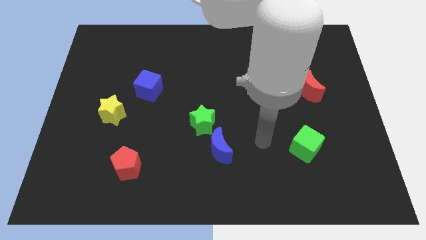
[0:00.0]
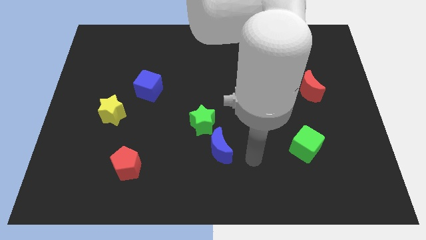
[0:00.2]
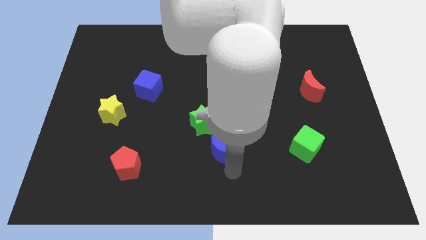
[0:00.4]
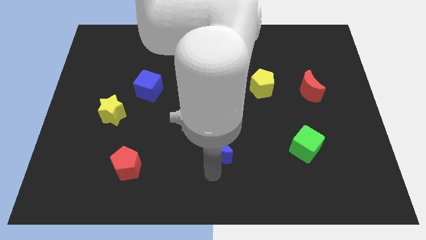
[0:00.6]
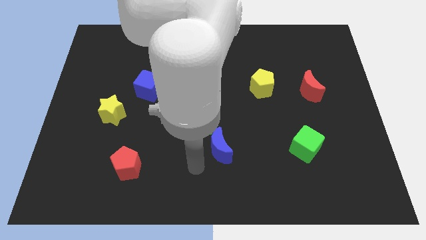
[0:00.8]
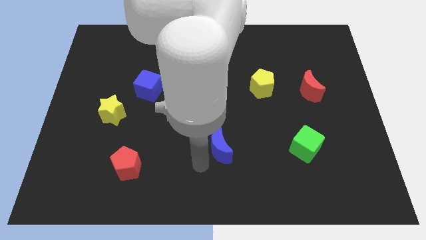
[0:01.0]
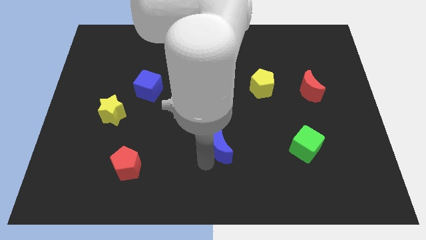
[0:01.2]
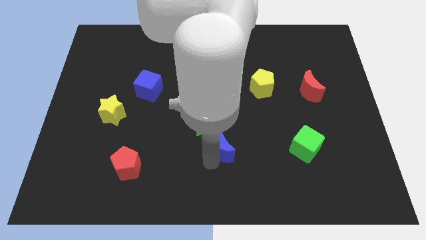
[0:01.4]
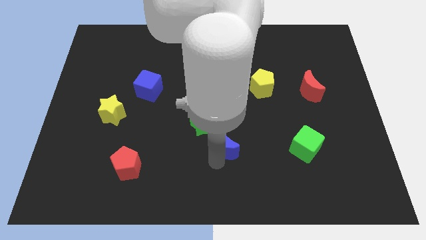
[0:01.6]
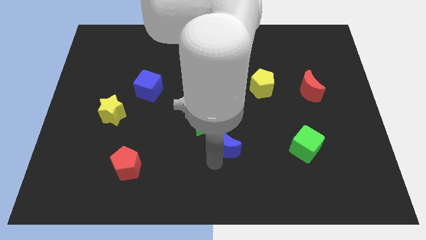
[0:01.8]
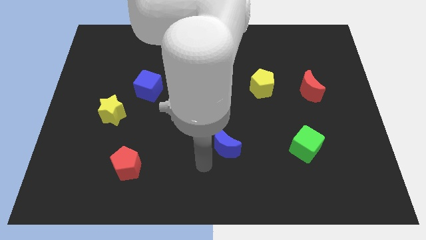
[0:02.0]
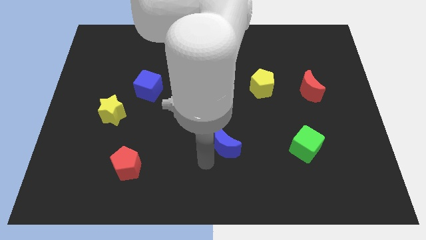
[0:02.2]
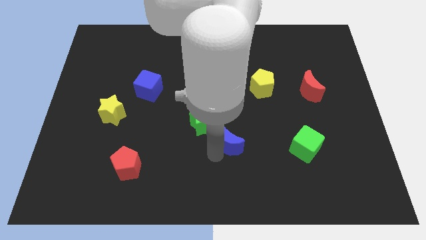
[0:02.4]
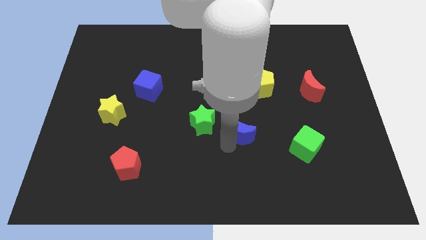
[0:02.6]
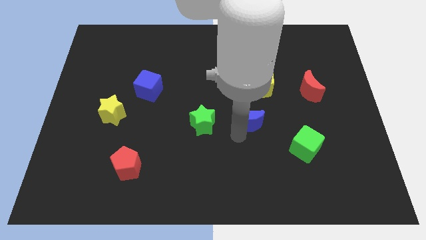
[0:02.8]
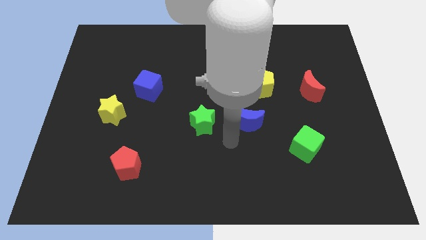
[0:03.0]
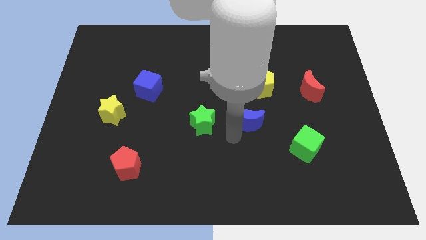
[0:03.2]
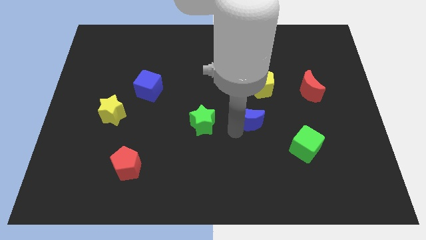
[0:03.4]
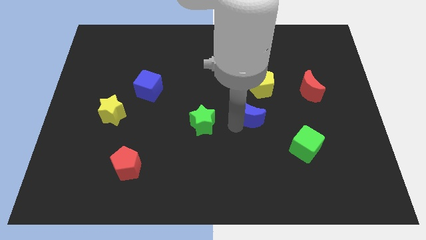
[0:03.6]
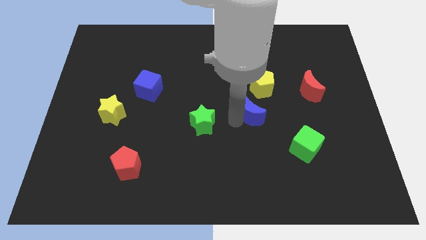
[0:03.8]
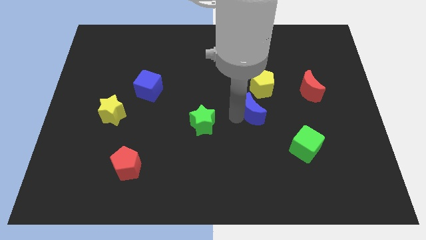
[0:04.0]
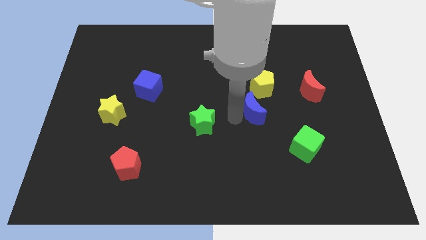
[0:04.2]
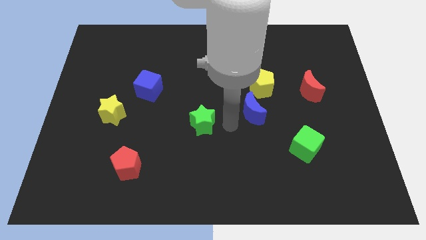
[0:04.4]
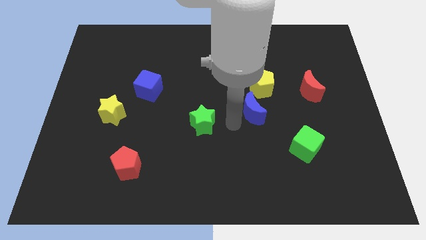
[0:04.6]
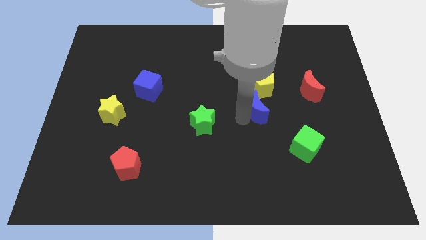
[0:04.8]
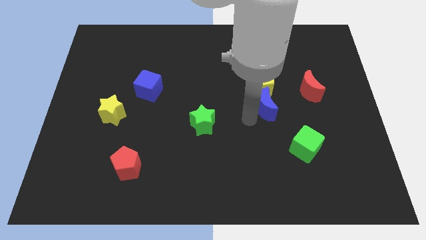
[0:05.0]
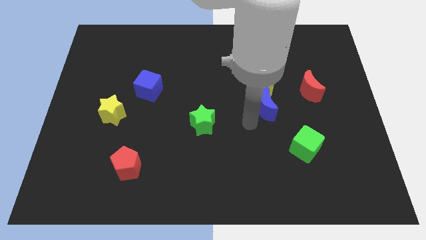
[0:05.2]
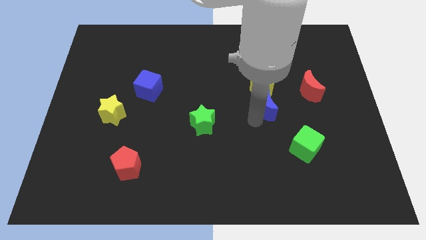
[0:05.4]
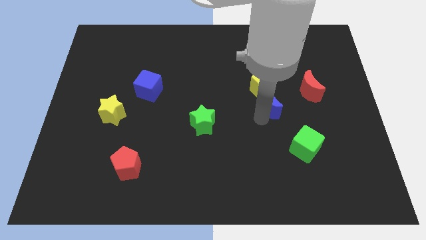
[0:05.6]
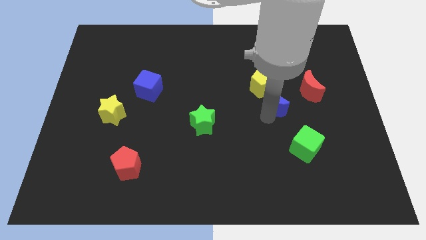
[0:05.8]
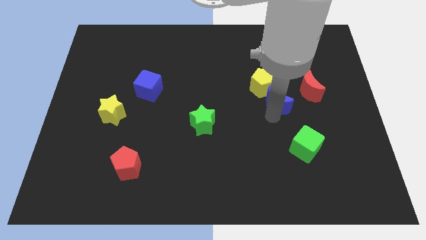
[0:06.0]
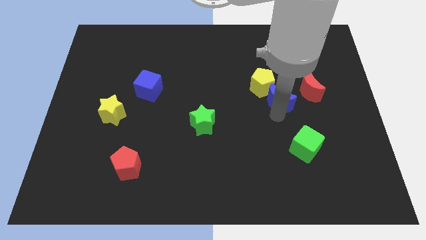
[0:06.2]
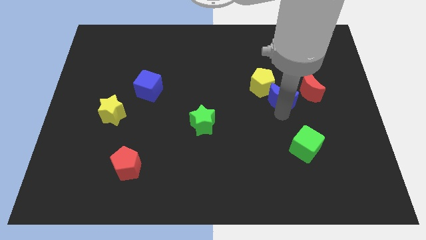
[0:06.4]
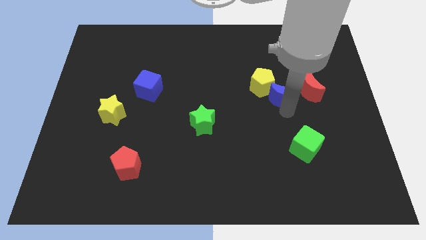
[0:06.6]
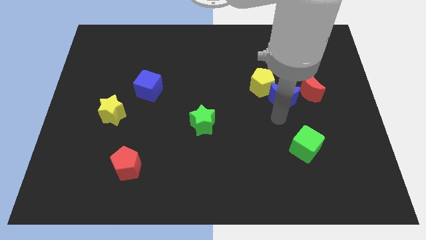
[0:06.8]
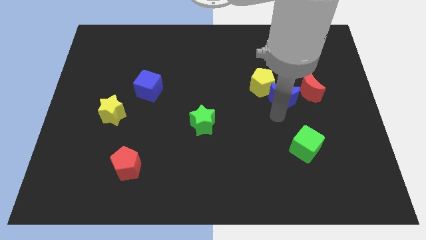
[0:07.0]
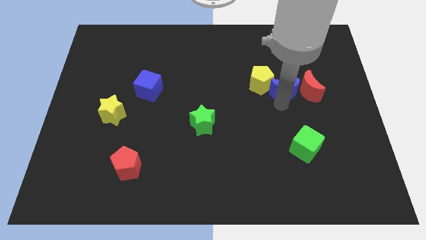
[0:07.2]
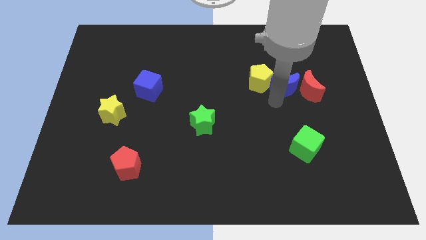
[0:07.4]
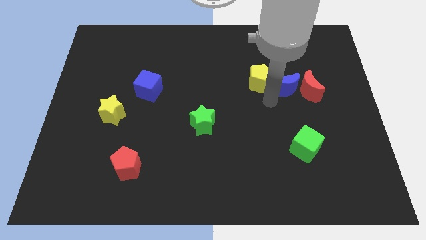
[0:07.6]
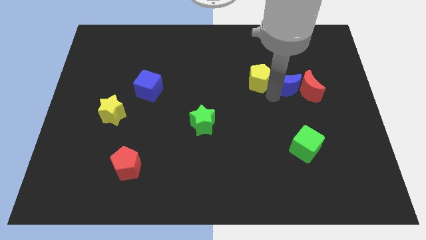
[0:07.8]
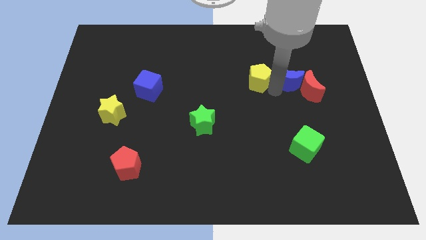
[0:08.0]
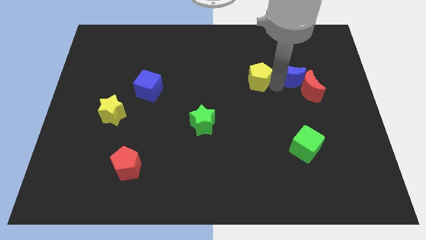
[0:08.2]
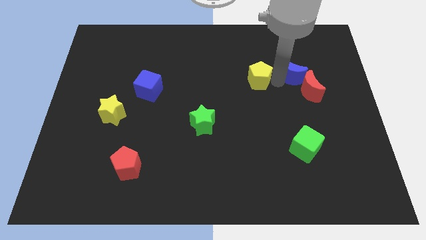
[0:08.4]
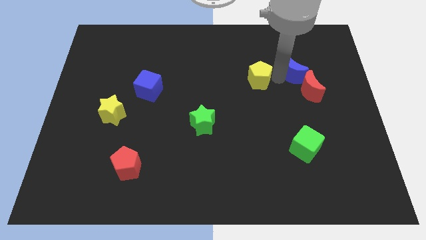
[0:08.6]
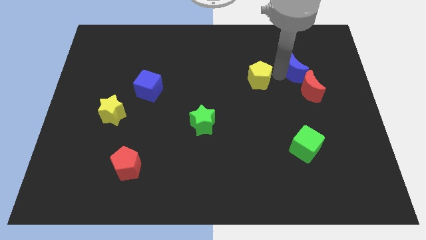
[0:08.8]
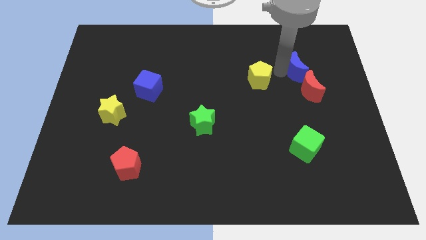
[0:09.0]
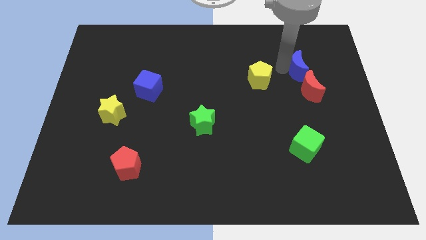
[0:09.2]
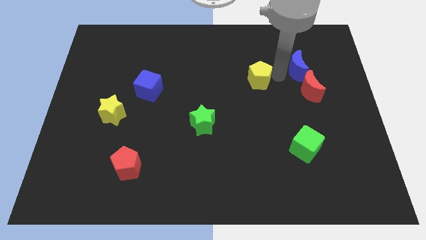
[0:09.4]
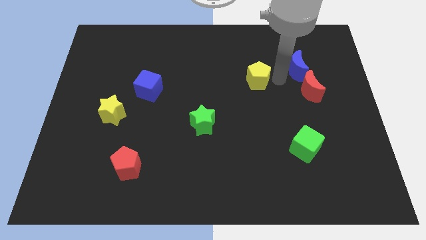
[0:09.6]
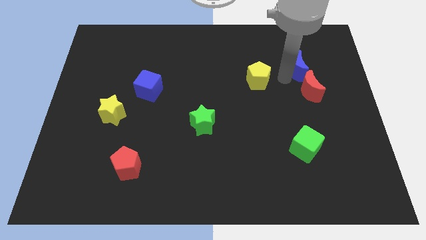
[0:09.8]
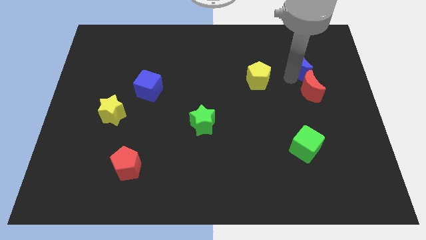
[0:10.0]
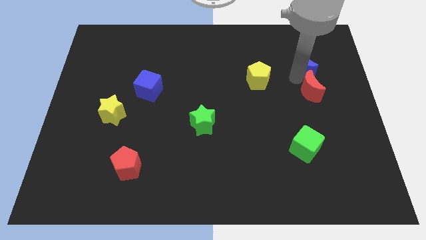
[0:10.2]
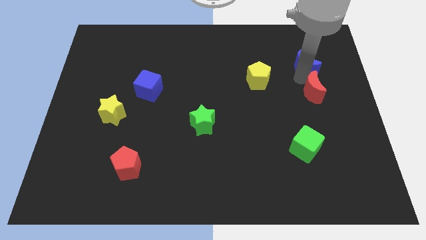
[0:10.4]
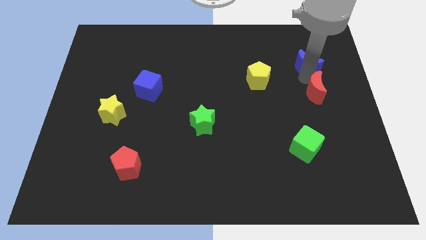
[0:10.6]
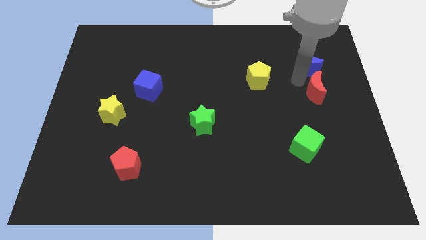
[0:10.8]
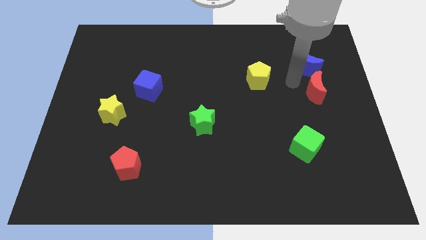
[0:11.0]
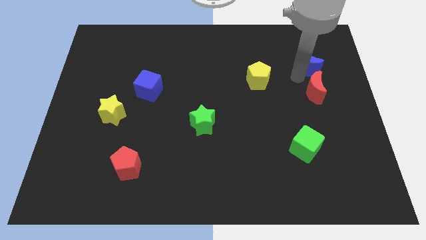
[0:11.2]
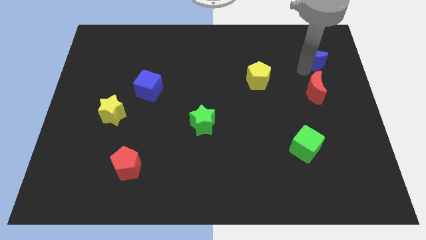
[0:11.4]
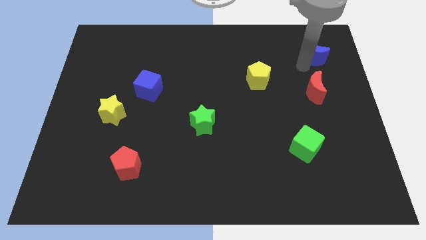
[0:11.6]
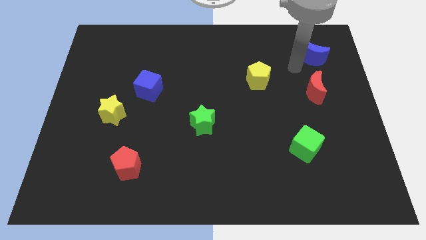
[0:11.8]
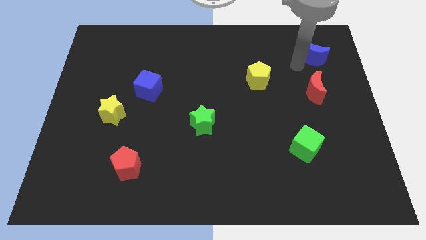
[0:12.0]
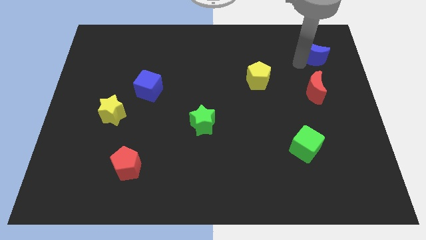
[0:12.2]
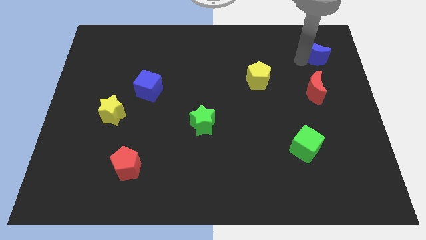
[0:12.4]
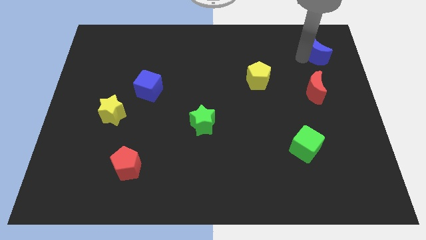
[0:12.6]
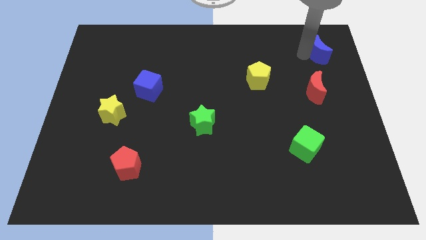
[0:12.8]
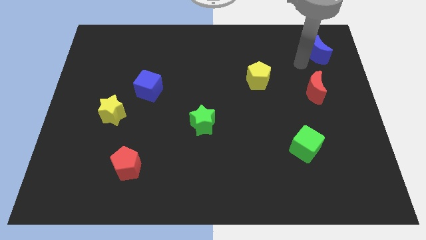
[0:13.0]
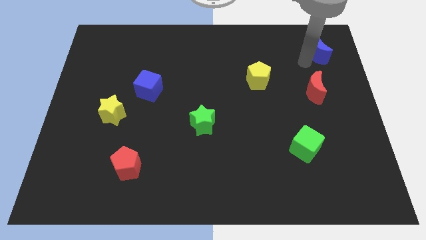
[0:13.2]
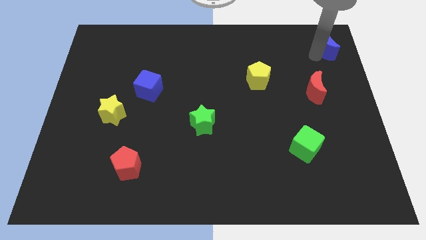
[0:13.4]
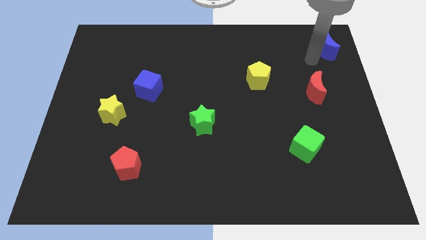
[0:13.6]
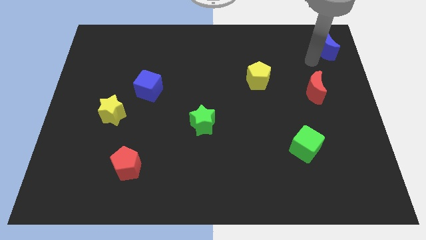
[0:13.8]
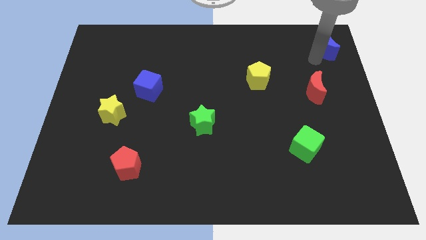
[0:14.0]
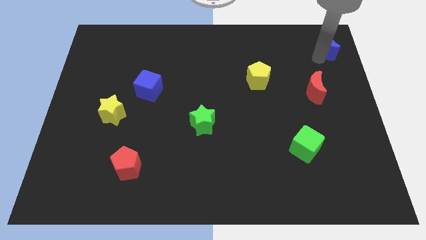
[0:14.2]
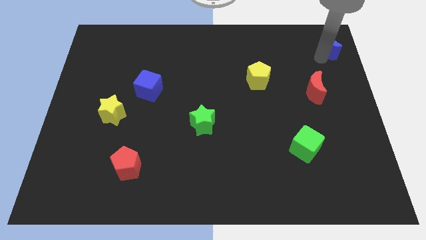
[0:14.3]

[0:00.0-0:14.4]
put the blue moon to the top right of the board

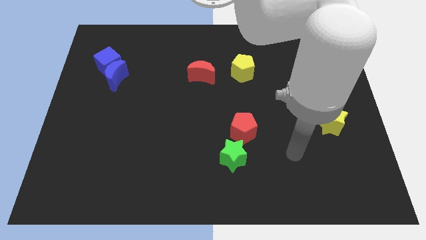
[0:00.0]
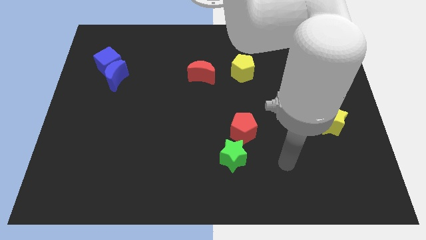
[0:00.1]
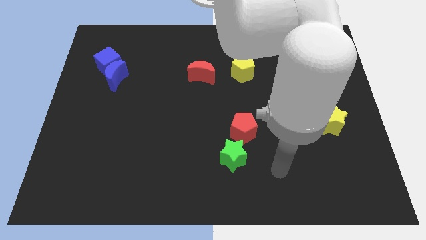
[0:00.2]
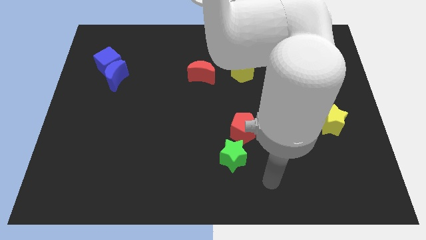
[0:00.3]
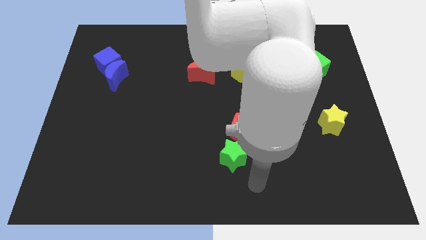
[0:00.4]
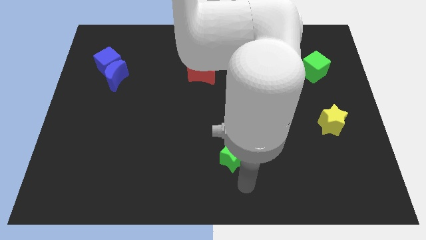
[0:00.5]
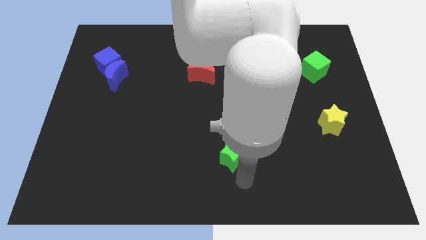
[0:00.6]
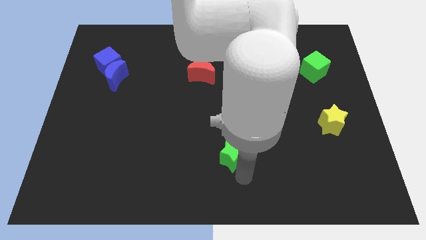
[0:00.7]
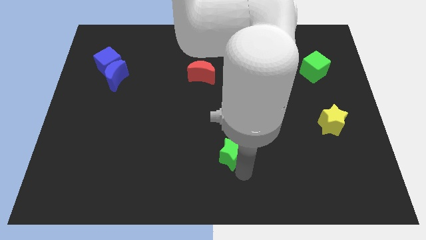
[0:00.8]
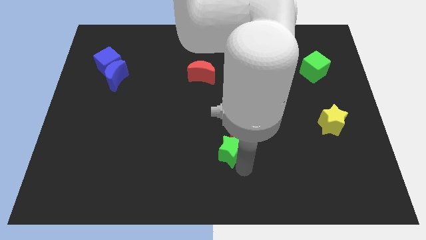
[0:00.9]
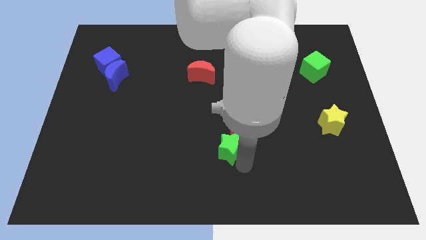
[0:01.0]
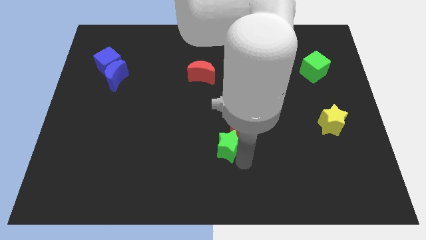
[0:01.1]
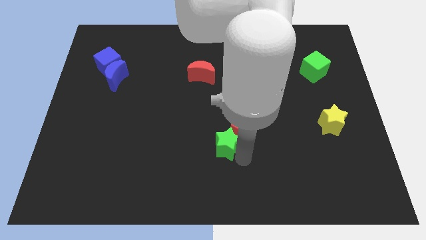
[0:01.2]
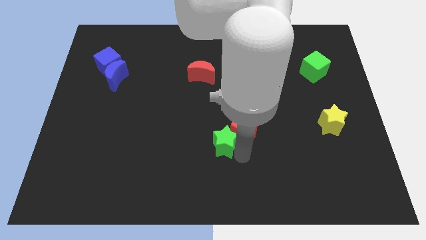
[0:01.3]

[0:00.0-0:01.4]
push the green star to the center
